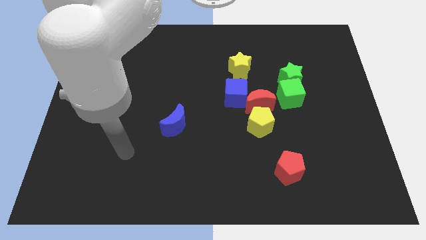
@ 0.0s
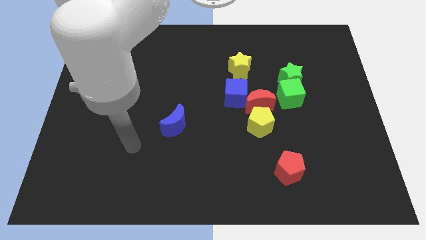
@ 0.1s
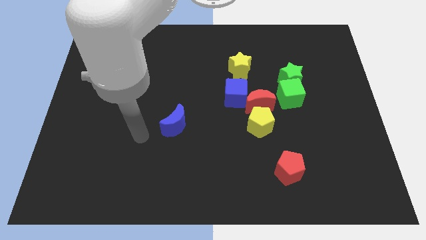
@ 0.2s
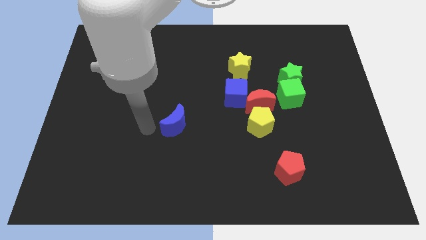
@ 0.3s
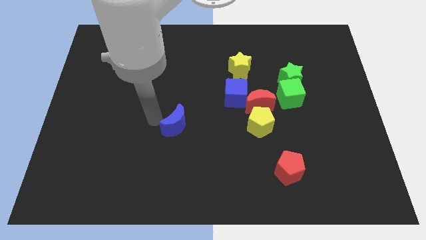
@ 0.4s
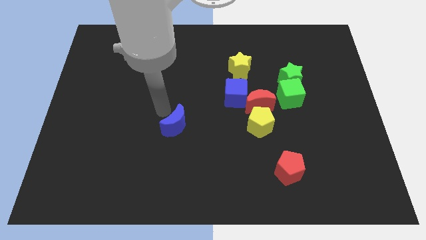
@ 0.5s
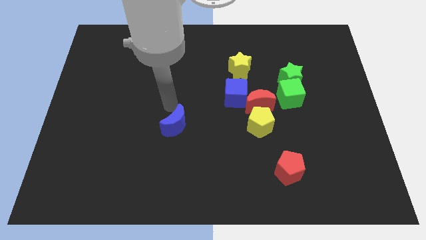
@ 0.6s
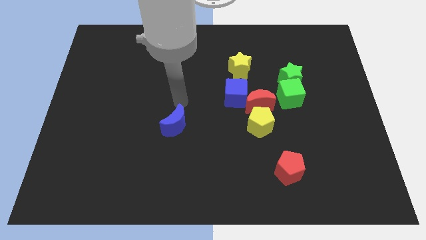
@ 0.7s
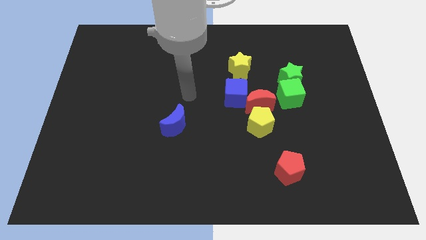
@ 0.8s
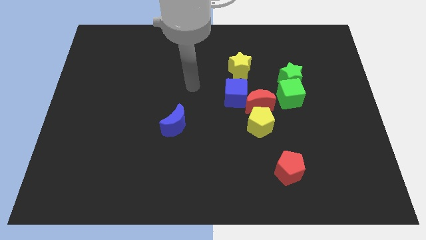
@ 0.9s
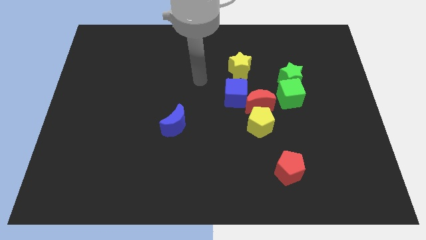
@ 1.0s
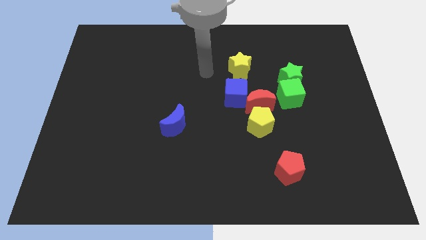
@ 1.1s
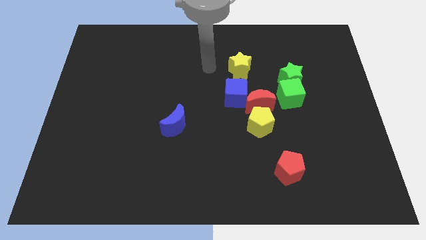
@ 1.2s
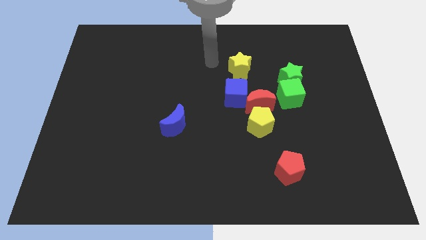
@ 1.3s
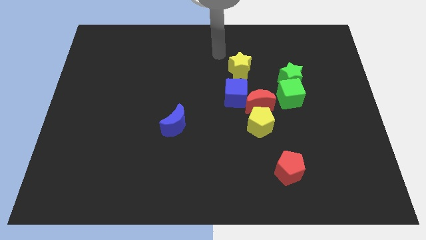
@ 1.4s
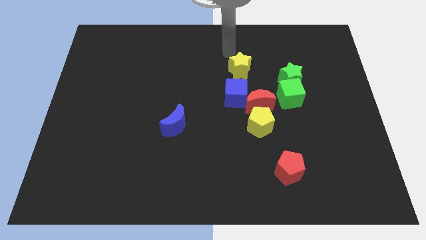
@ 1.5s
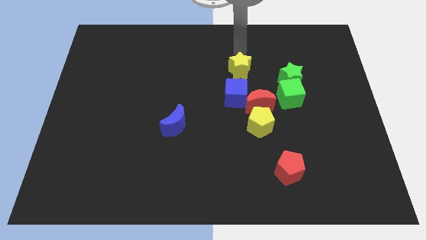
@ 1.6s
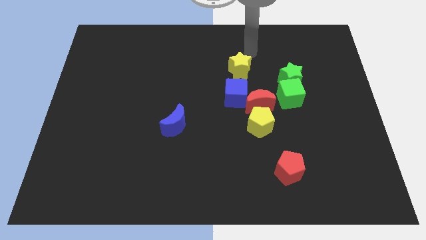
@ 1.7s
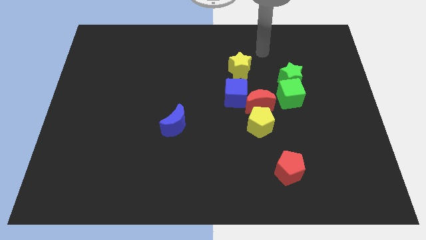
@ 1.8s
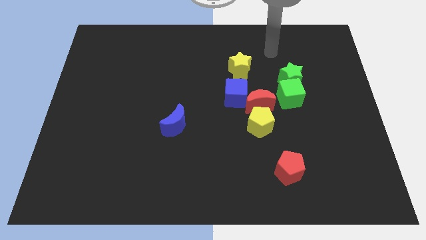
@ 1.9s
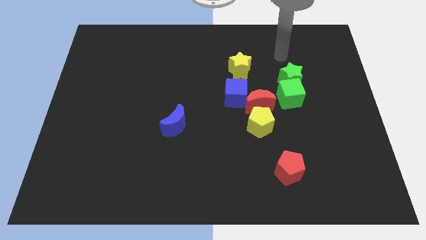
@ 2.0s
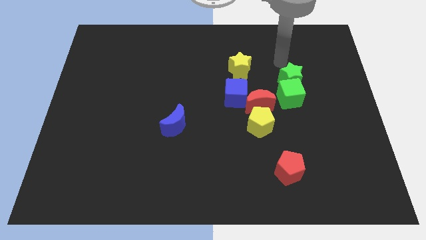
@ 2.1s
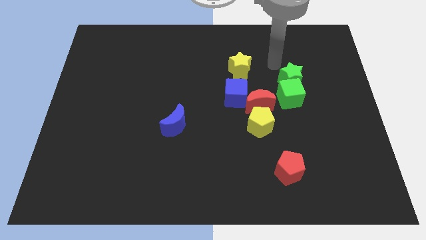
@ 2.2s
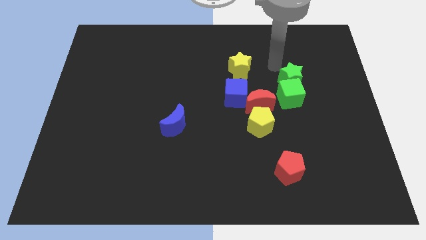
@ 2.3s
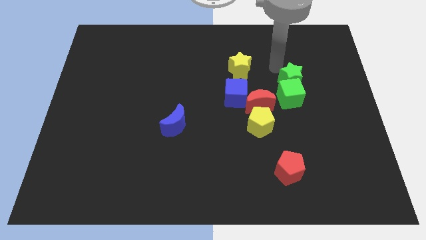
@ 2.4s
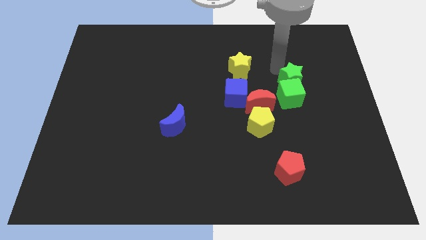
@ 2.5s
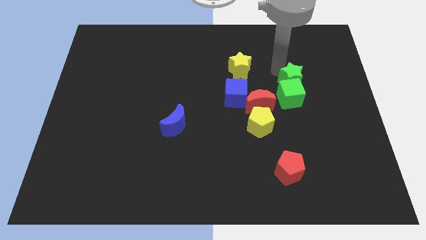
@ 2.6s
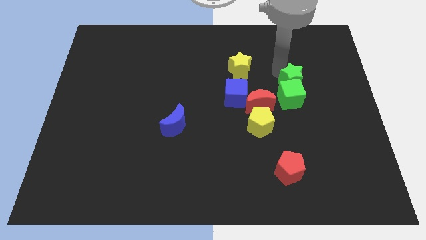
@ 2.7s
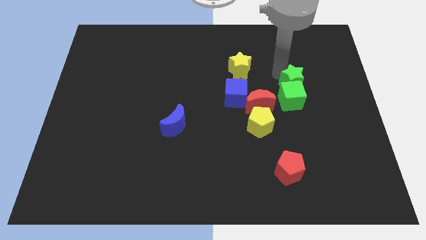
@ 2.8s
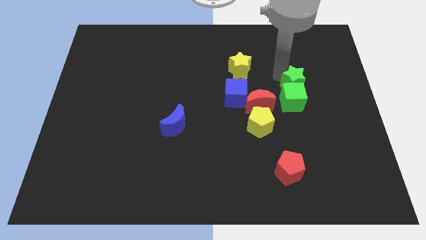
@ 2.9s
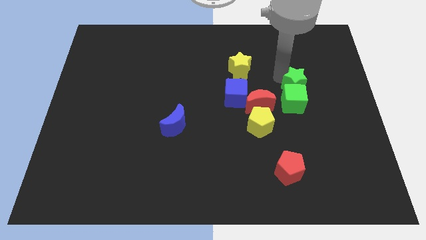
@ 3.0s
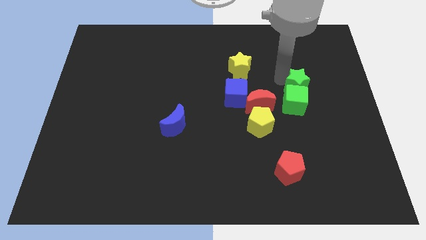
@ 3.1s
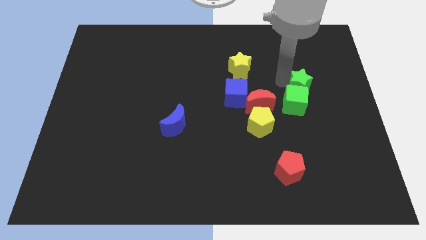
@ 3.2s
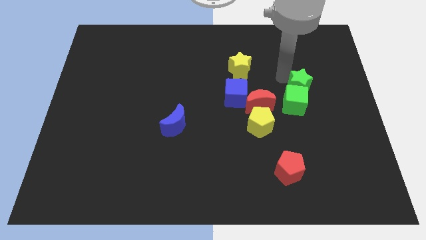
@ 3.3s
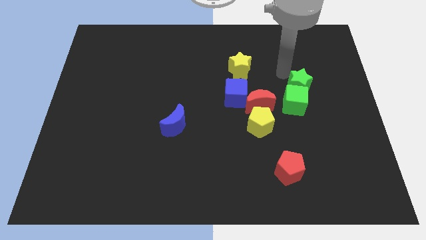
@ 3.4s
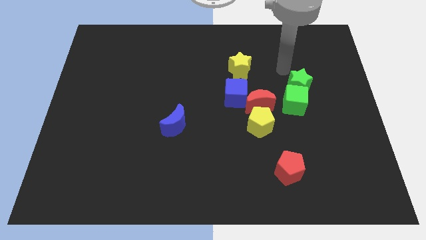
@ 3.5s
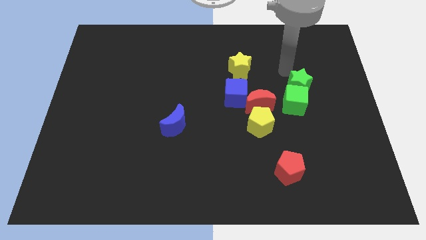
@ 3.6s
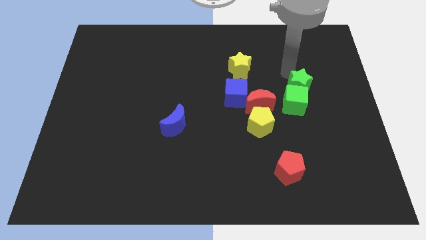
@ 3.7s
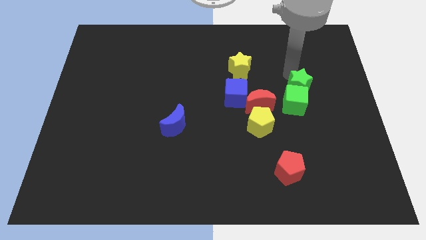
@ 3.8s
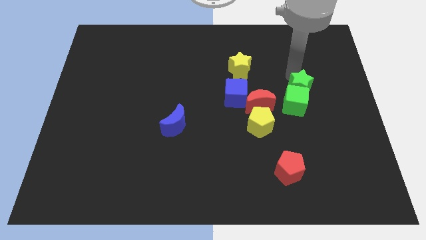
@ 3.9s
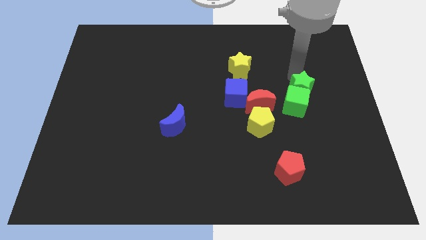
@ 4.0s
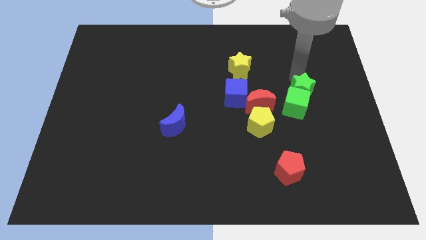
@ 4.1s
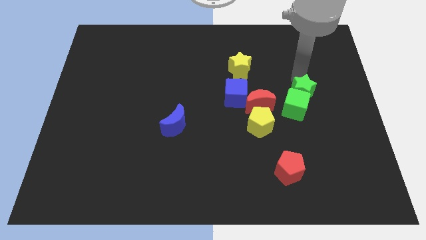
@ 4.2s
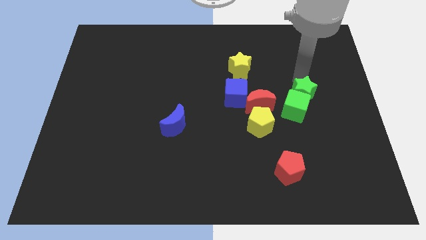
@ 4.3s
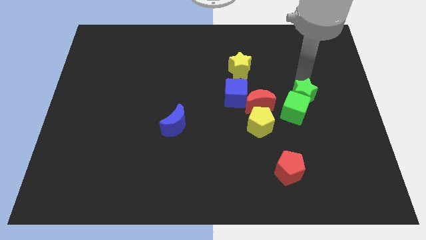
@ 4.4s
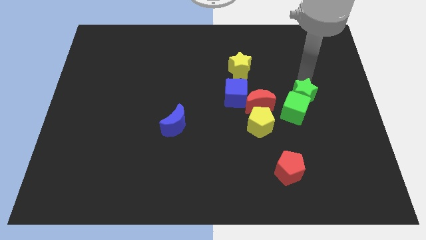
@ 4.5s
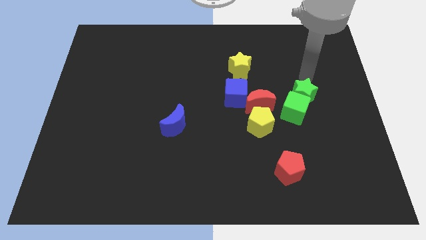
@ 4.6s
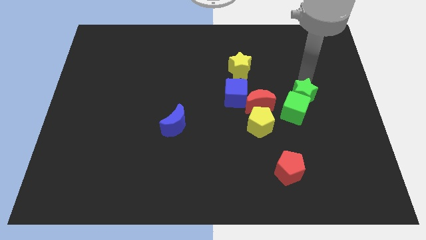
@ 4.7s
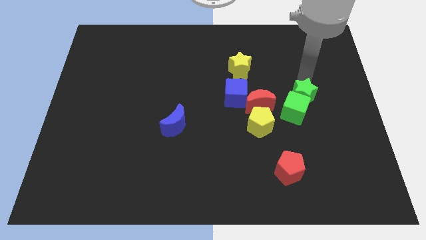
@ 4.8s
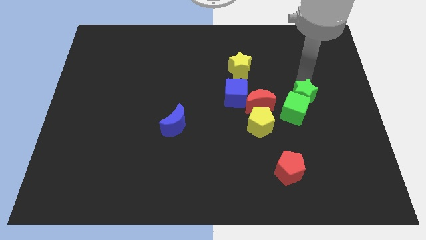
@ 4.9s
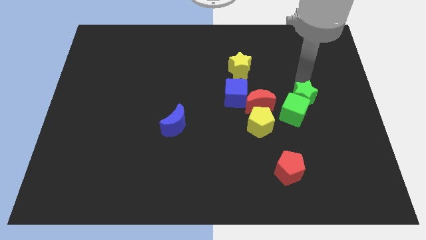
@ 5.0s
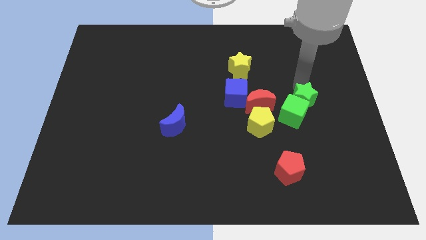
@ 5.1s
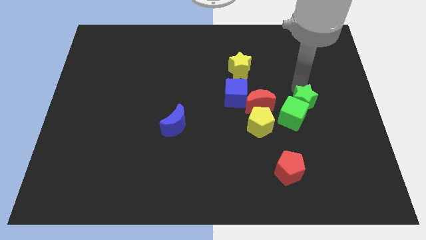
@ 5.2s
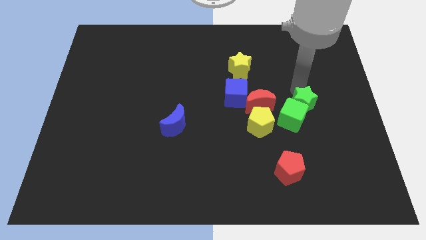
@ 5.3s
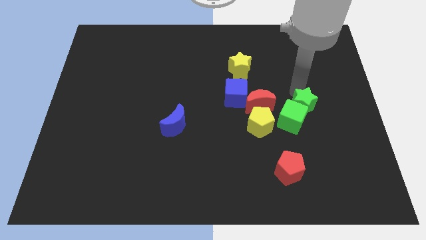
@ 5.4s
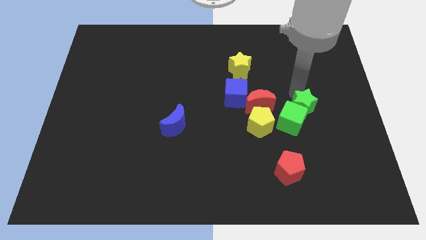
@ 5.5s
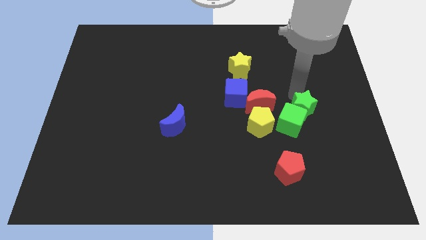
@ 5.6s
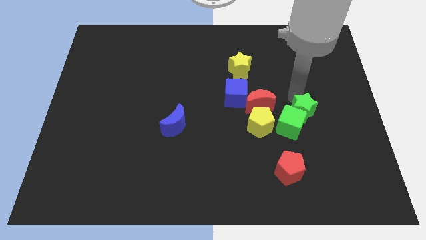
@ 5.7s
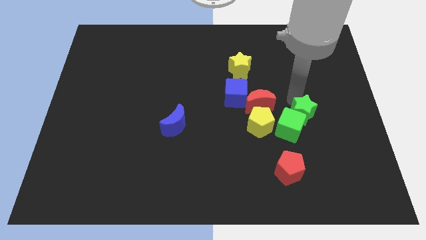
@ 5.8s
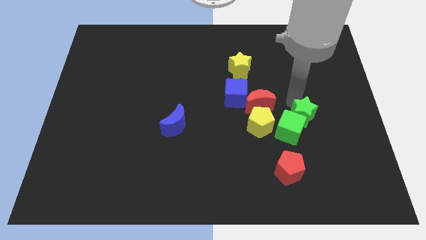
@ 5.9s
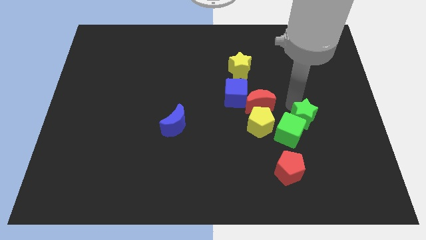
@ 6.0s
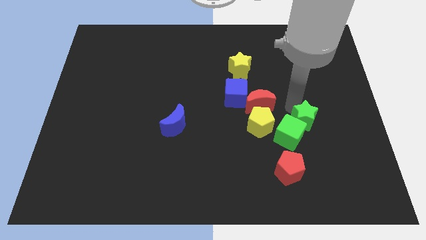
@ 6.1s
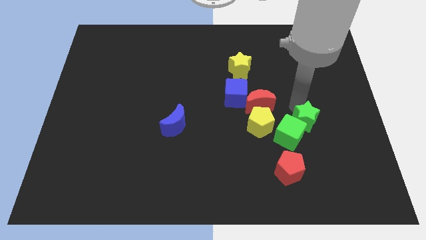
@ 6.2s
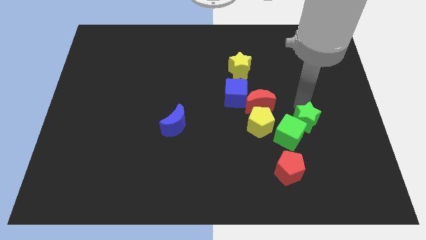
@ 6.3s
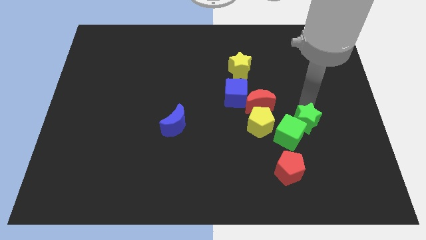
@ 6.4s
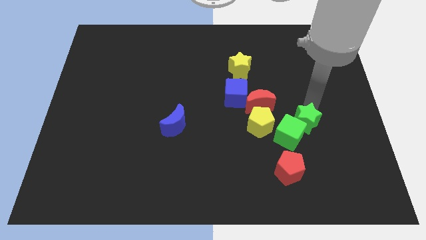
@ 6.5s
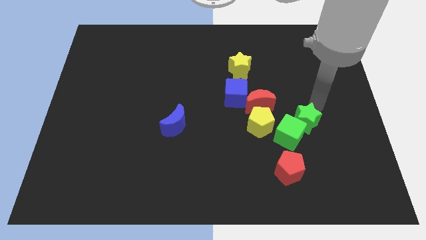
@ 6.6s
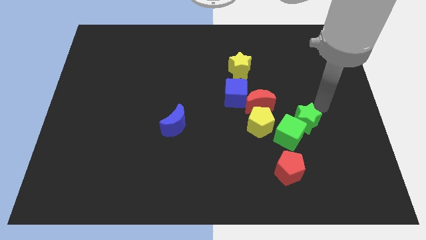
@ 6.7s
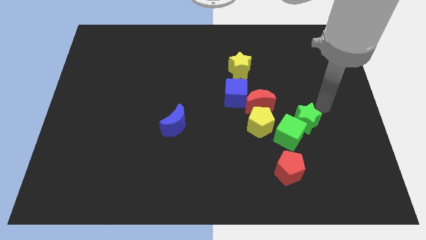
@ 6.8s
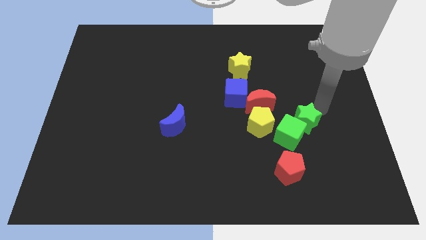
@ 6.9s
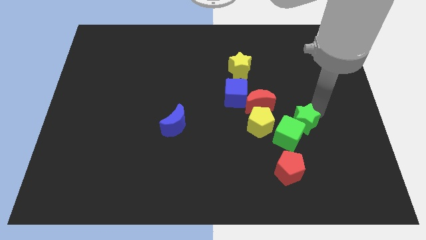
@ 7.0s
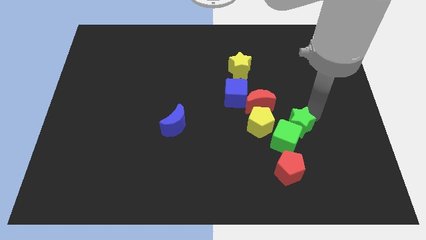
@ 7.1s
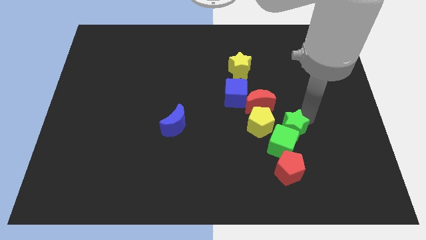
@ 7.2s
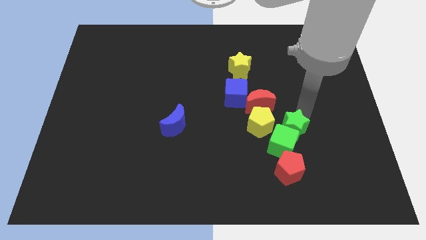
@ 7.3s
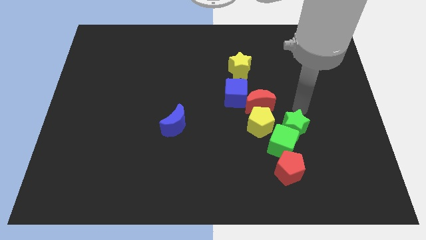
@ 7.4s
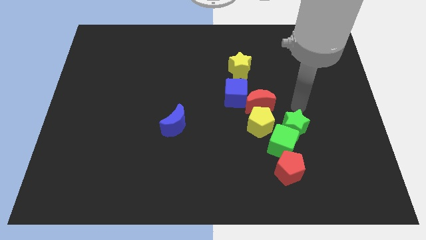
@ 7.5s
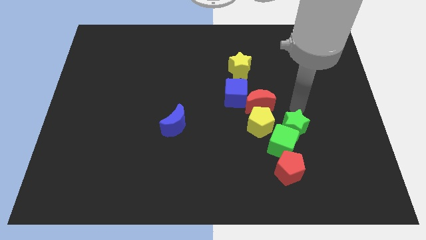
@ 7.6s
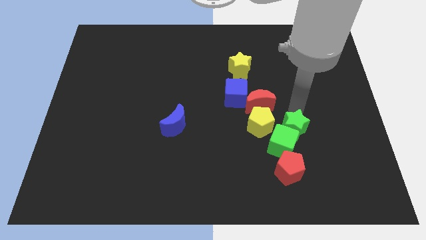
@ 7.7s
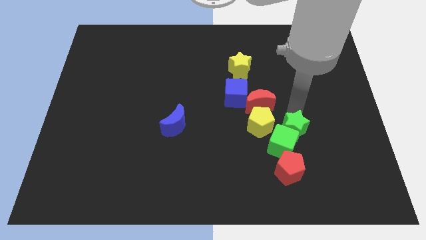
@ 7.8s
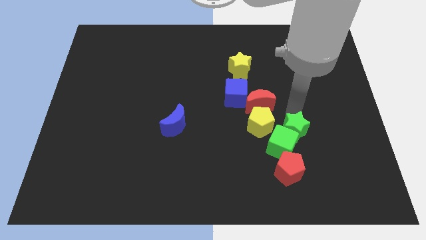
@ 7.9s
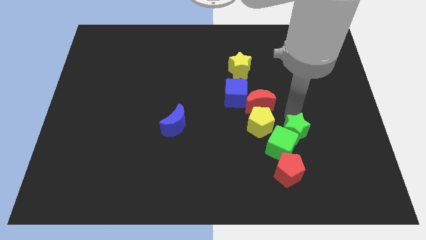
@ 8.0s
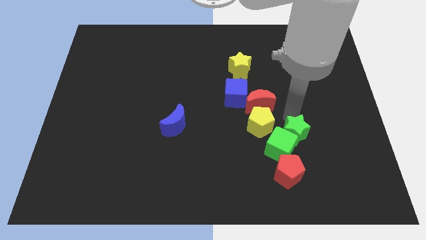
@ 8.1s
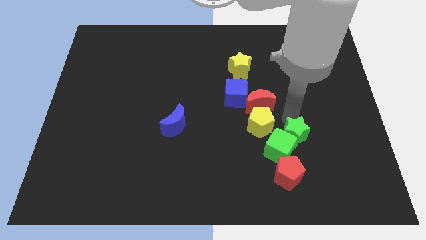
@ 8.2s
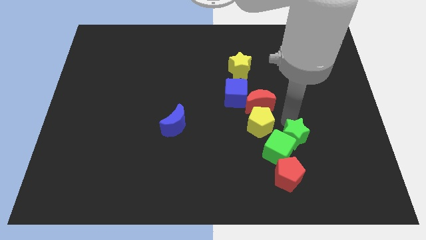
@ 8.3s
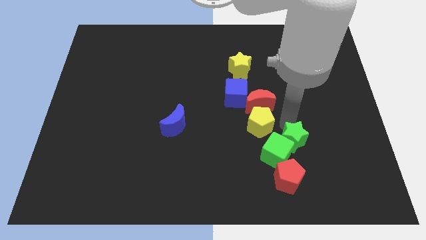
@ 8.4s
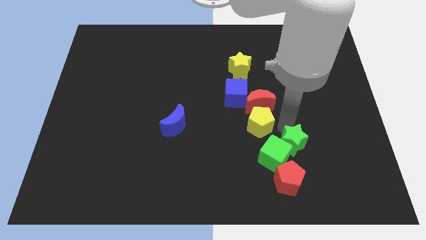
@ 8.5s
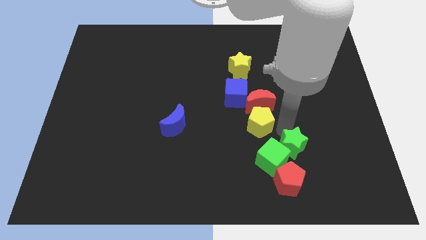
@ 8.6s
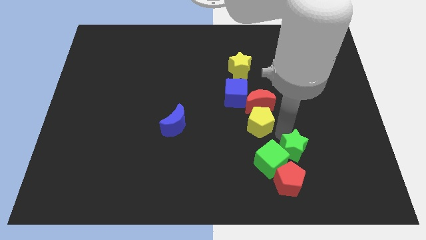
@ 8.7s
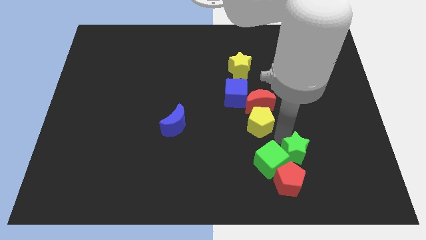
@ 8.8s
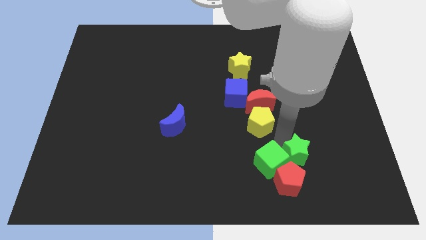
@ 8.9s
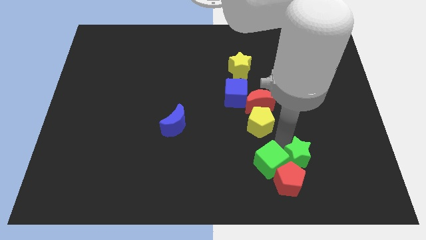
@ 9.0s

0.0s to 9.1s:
move the green star towards the red pentagon
